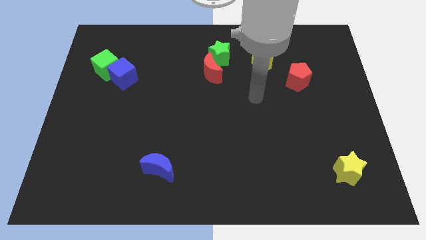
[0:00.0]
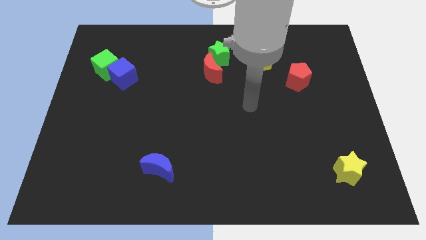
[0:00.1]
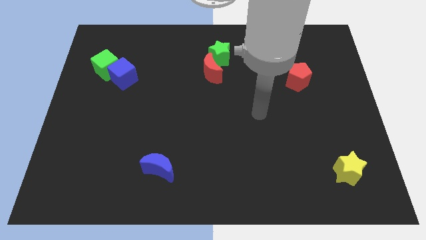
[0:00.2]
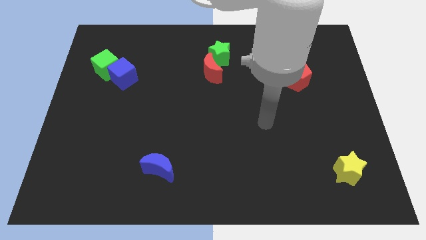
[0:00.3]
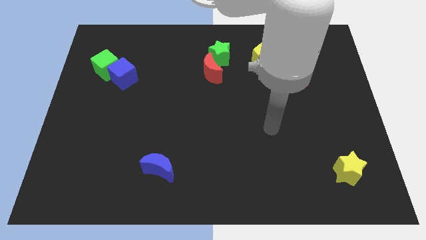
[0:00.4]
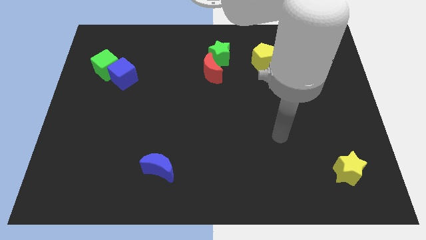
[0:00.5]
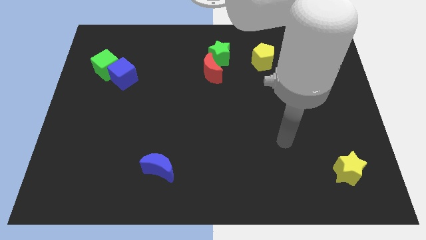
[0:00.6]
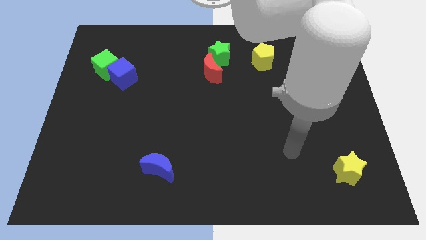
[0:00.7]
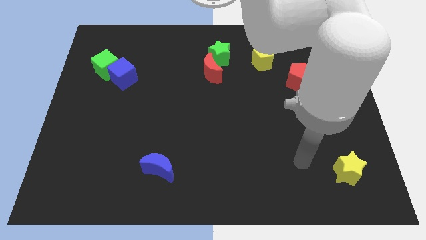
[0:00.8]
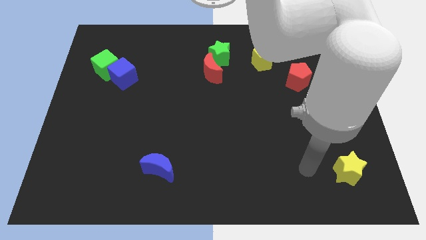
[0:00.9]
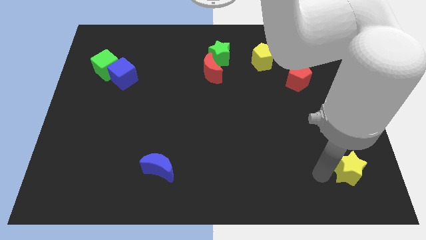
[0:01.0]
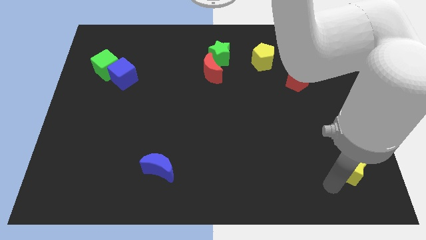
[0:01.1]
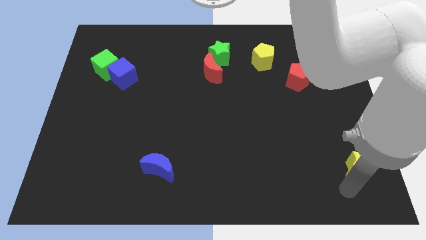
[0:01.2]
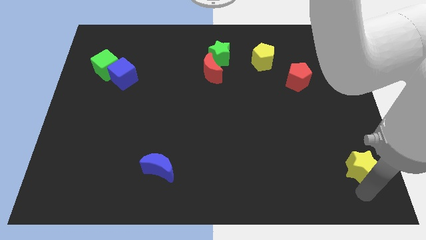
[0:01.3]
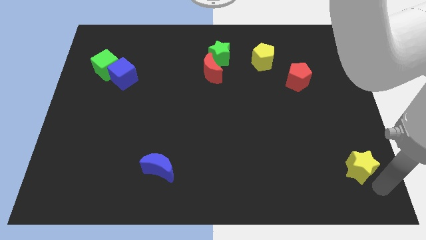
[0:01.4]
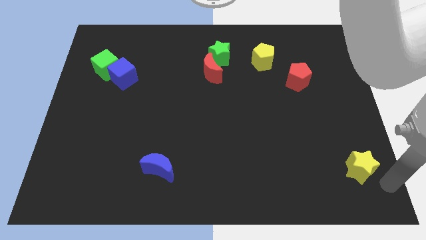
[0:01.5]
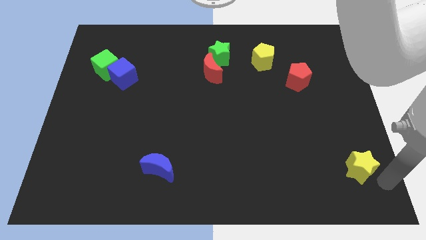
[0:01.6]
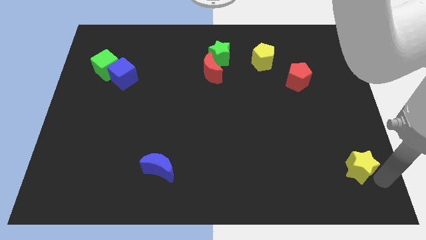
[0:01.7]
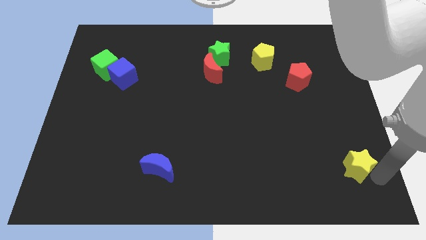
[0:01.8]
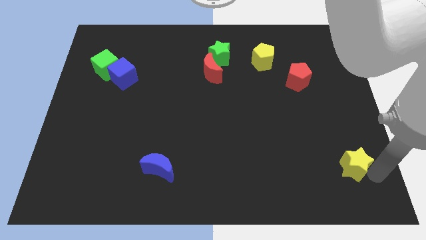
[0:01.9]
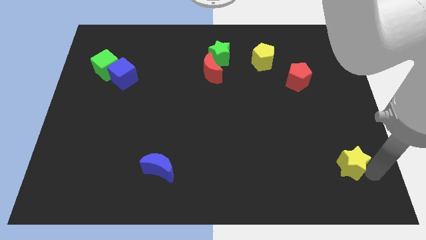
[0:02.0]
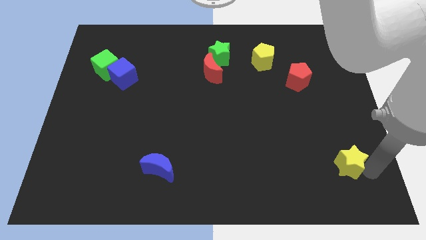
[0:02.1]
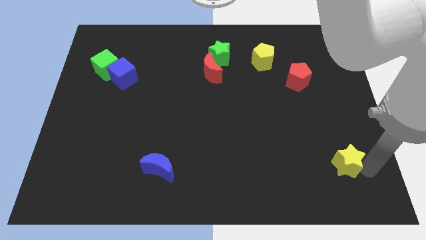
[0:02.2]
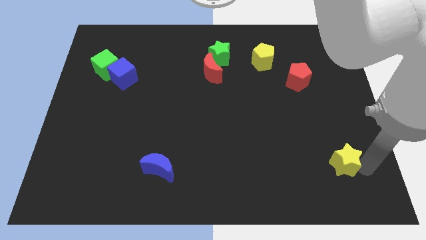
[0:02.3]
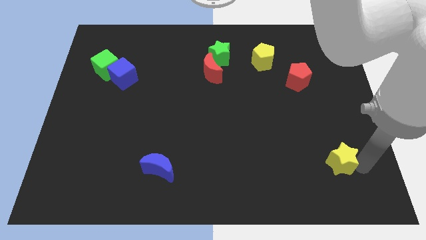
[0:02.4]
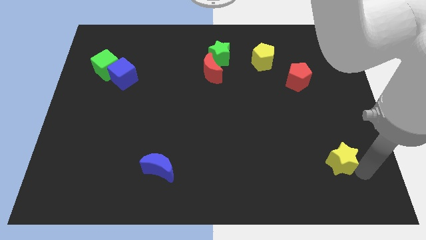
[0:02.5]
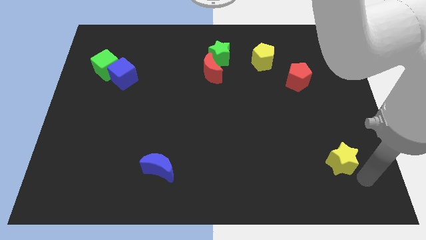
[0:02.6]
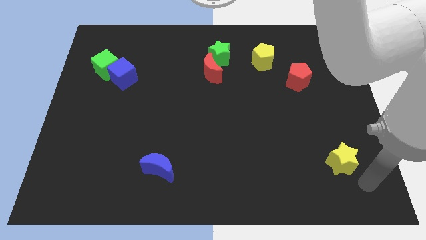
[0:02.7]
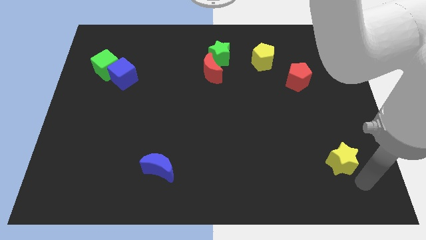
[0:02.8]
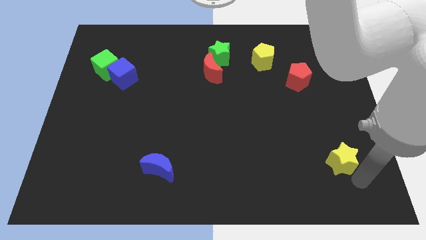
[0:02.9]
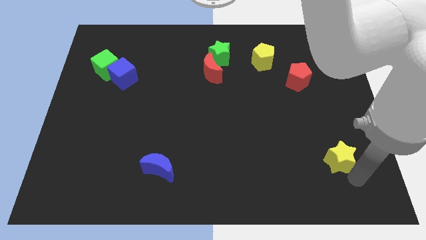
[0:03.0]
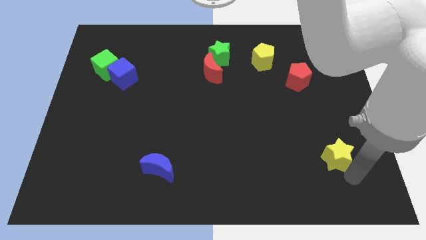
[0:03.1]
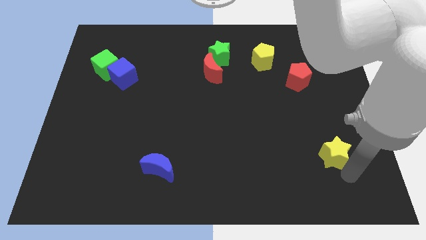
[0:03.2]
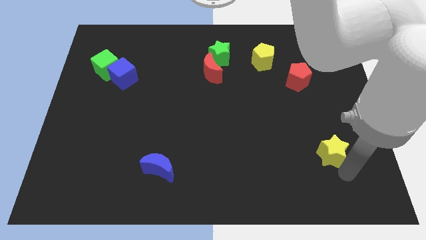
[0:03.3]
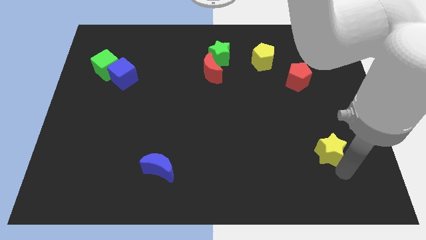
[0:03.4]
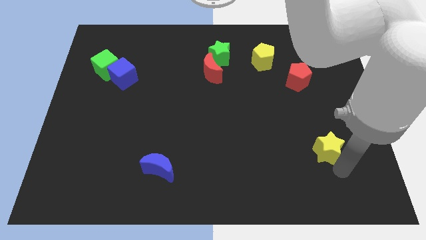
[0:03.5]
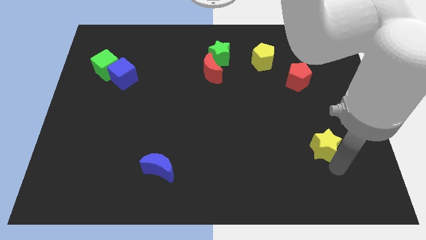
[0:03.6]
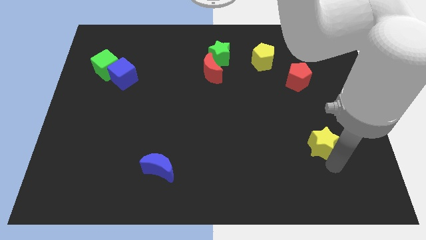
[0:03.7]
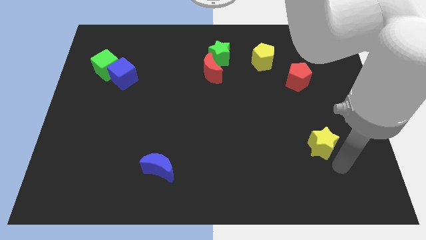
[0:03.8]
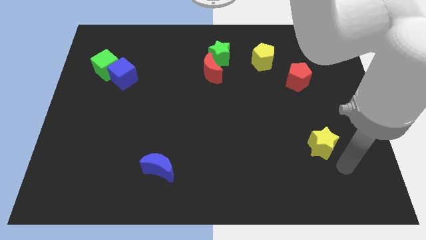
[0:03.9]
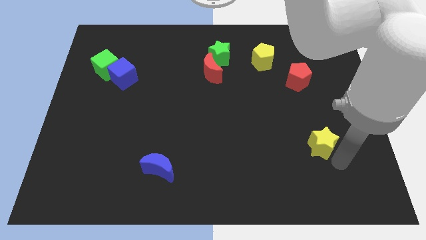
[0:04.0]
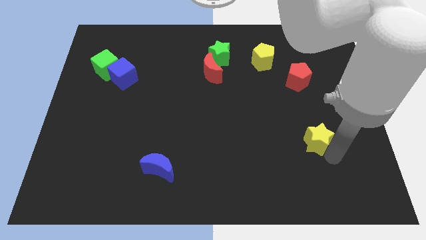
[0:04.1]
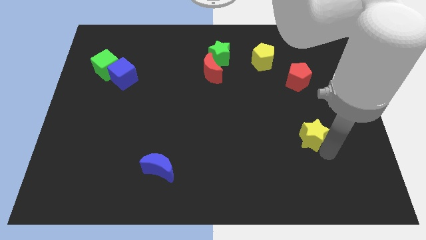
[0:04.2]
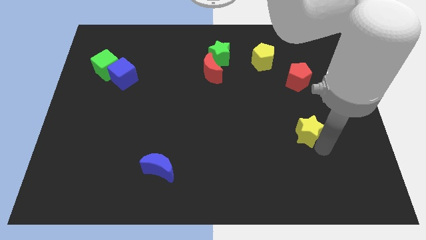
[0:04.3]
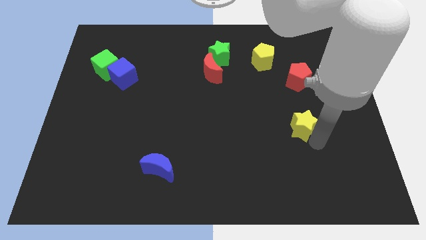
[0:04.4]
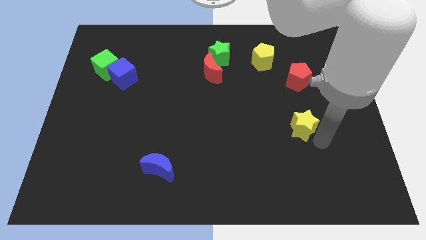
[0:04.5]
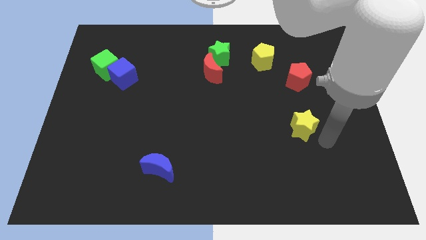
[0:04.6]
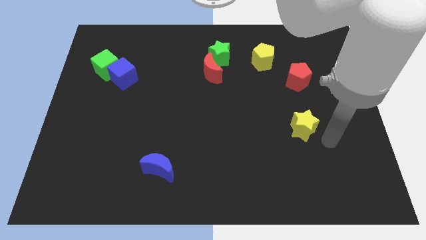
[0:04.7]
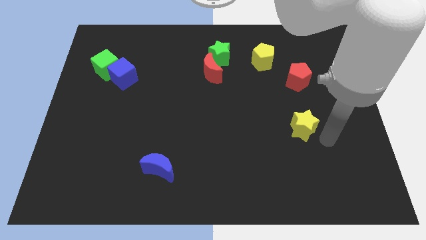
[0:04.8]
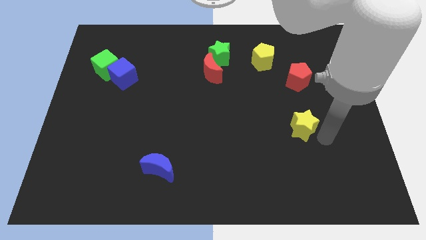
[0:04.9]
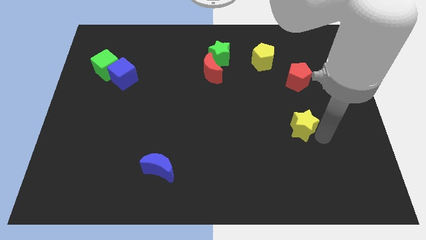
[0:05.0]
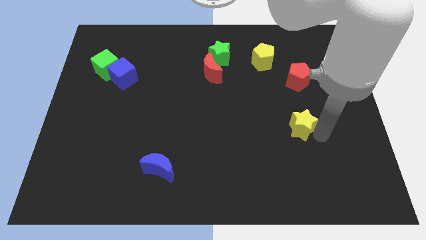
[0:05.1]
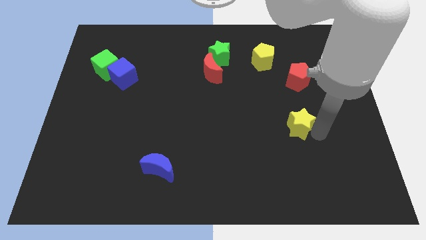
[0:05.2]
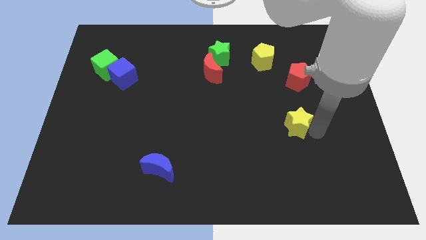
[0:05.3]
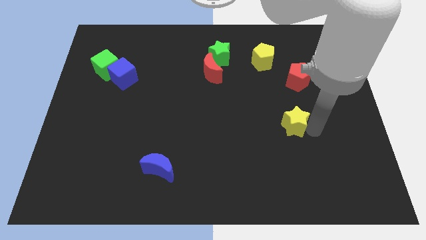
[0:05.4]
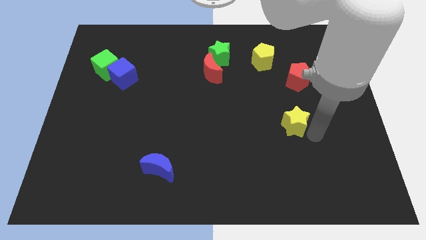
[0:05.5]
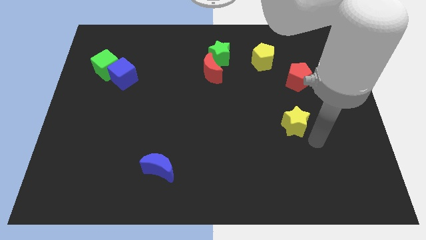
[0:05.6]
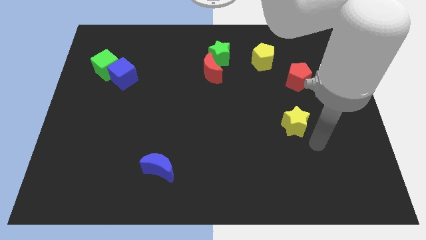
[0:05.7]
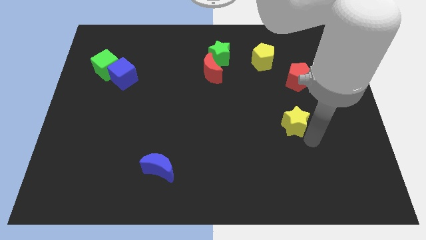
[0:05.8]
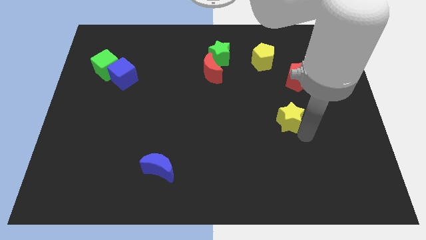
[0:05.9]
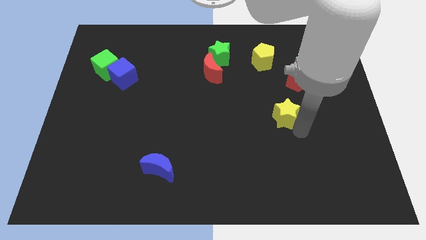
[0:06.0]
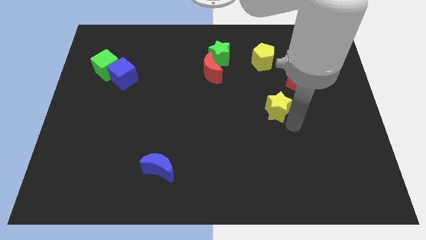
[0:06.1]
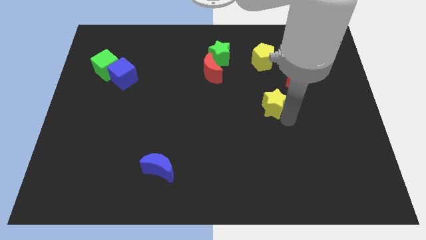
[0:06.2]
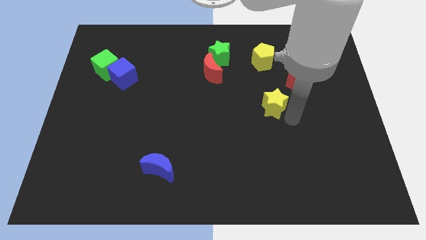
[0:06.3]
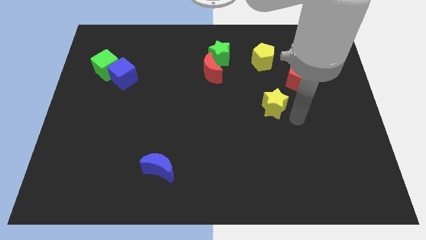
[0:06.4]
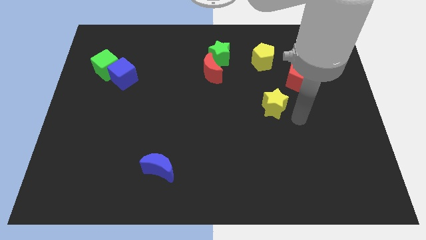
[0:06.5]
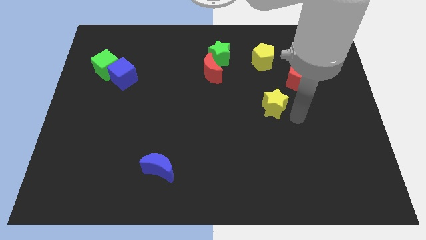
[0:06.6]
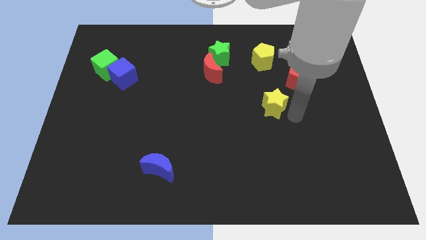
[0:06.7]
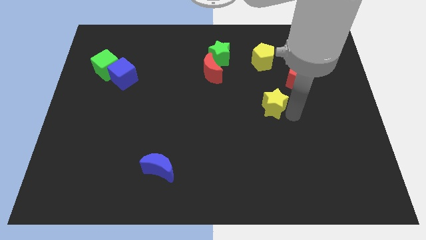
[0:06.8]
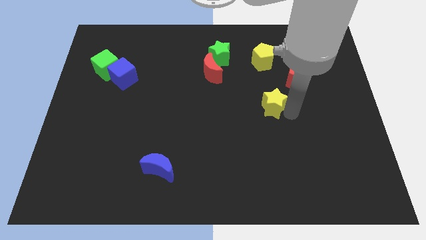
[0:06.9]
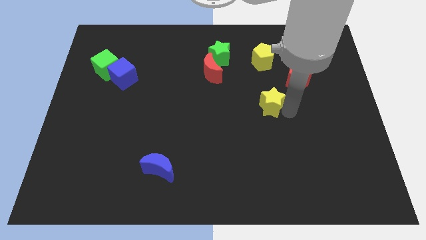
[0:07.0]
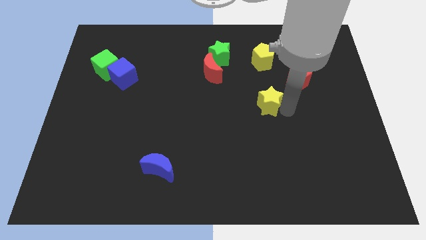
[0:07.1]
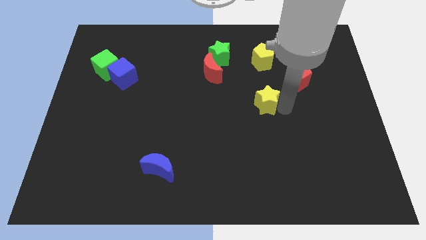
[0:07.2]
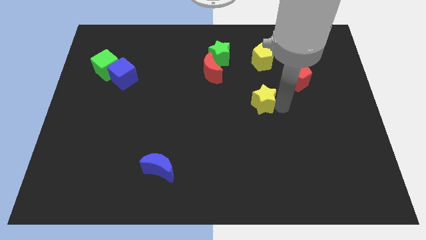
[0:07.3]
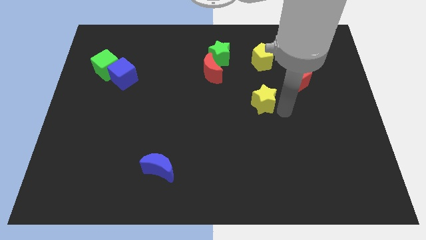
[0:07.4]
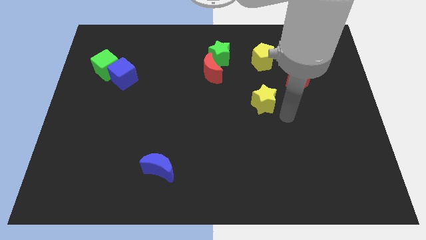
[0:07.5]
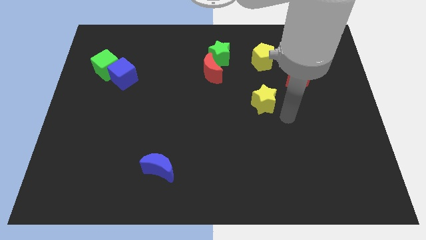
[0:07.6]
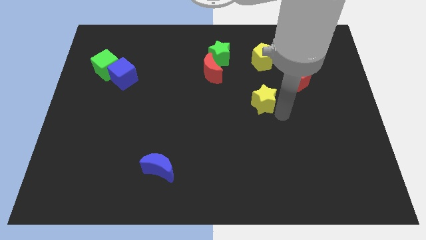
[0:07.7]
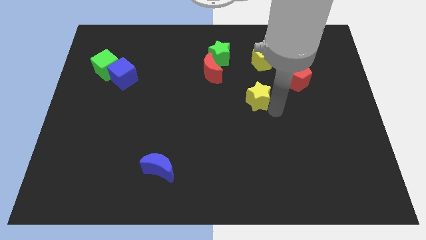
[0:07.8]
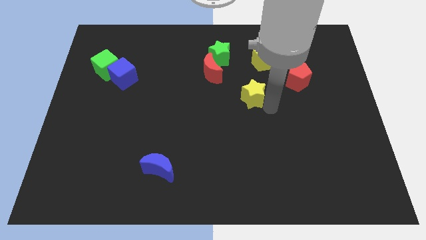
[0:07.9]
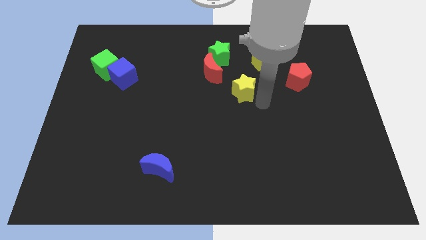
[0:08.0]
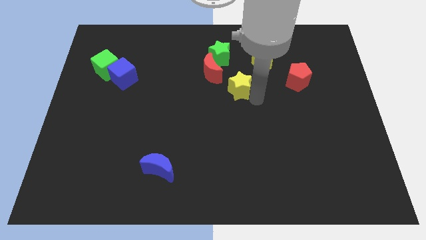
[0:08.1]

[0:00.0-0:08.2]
put the yellow star below the green star
